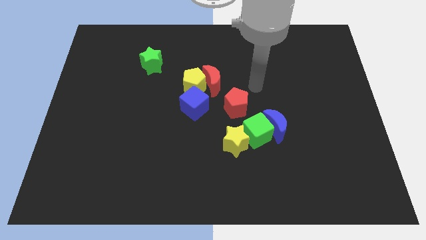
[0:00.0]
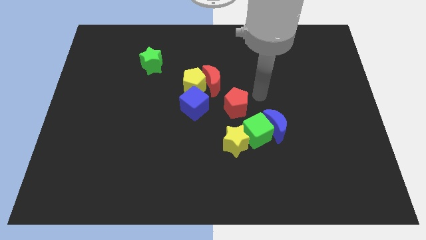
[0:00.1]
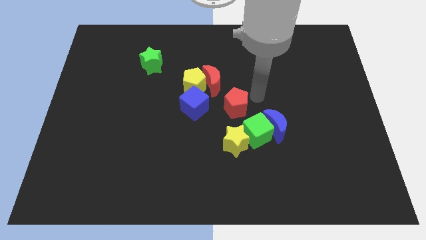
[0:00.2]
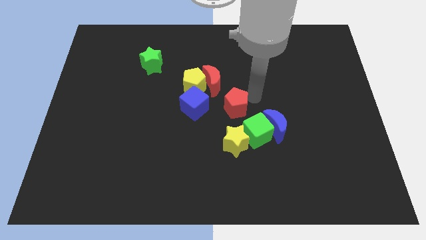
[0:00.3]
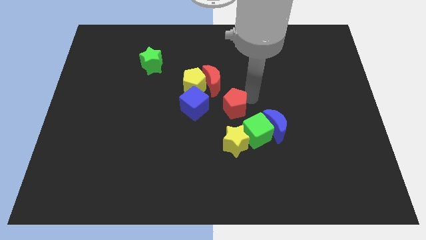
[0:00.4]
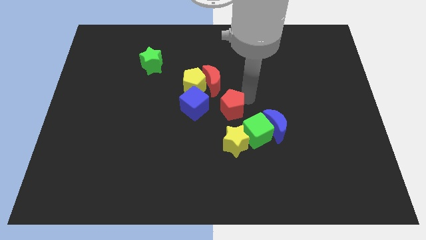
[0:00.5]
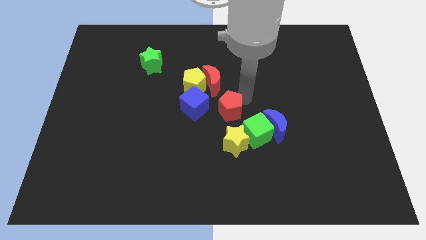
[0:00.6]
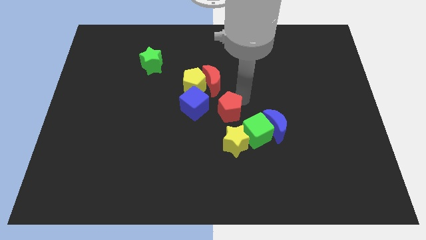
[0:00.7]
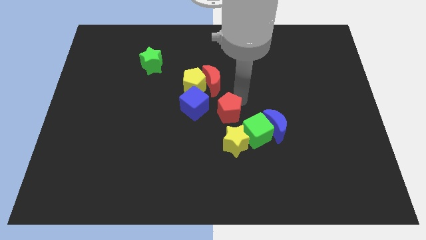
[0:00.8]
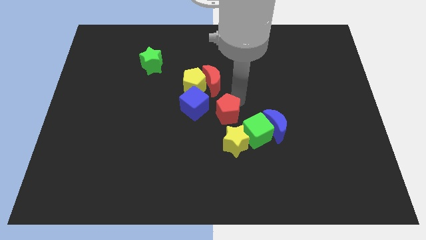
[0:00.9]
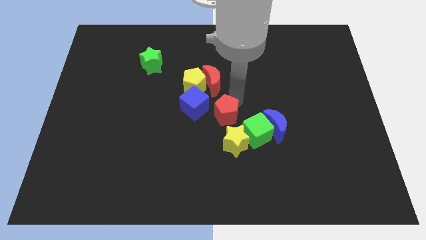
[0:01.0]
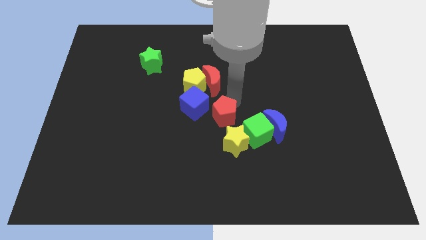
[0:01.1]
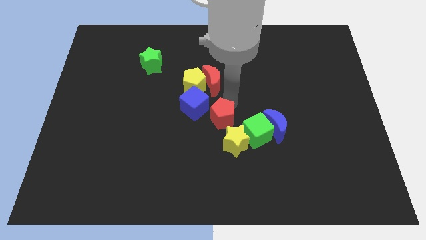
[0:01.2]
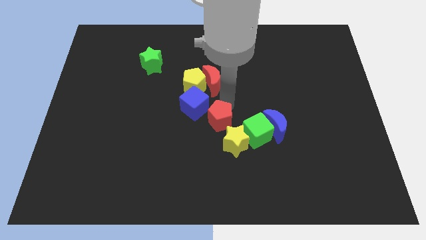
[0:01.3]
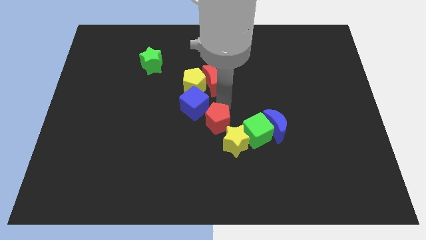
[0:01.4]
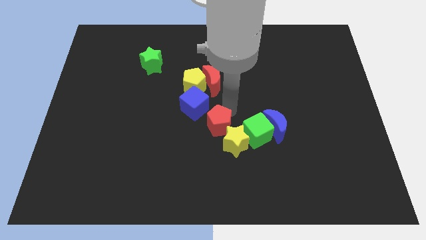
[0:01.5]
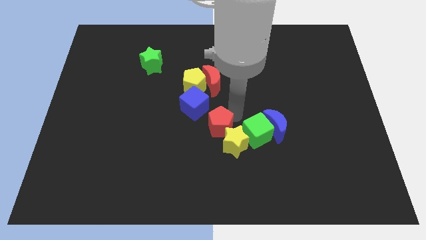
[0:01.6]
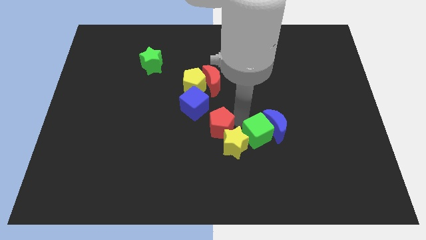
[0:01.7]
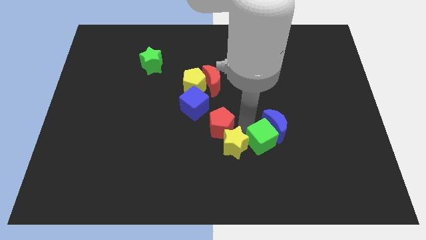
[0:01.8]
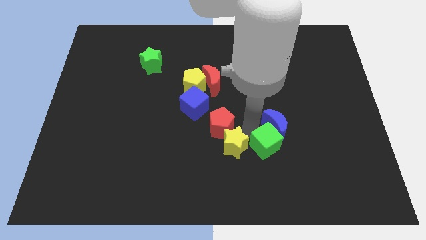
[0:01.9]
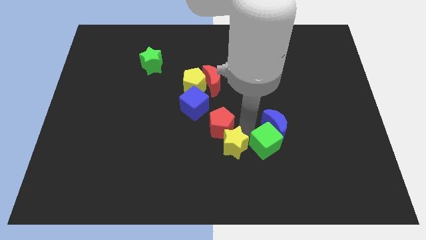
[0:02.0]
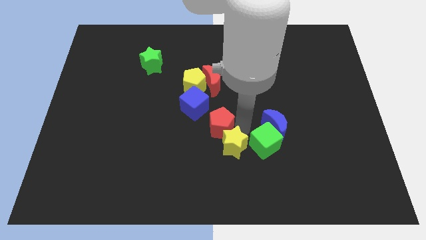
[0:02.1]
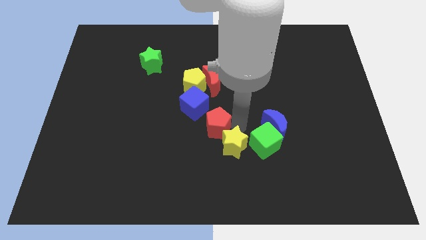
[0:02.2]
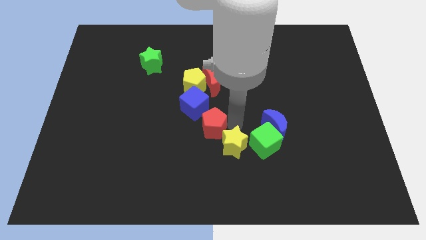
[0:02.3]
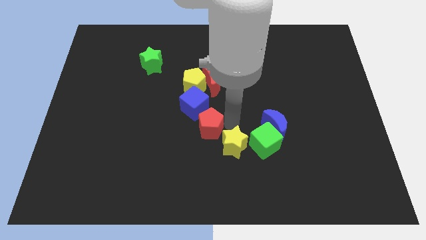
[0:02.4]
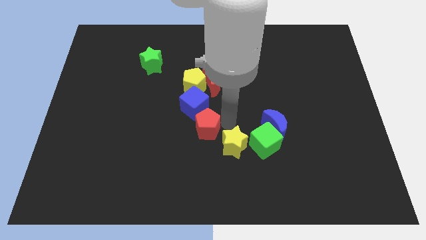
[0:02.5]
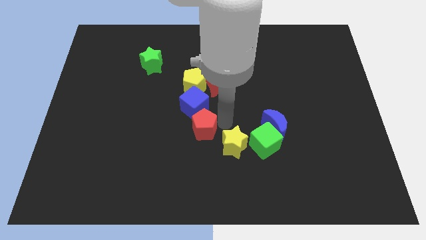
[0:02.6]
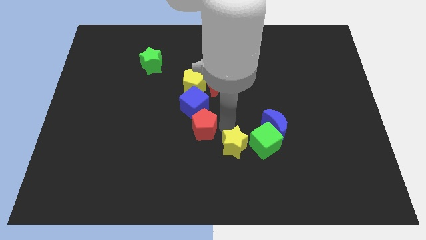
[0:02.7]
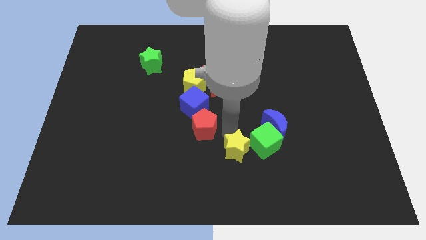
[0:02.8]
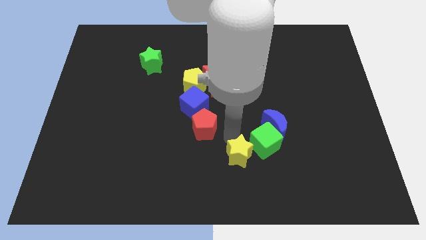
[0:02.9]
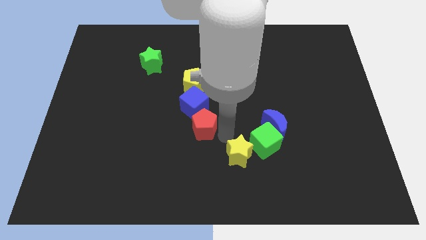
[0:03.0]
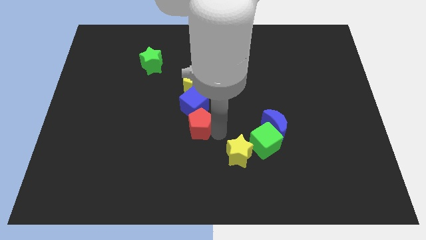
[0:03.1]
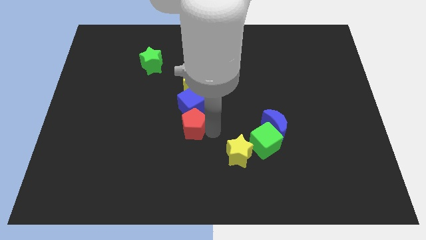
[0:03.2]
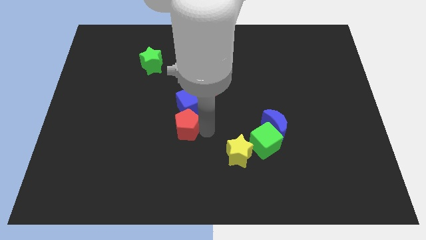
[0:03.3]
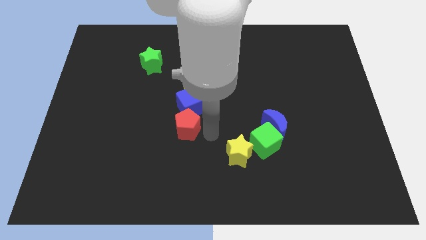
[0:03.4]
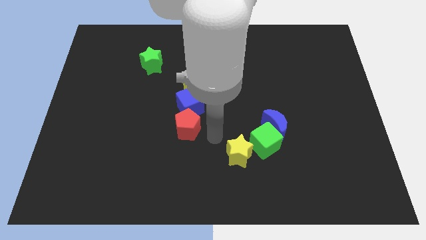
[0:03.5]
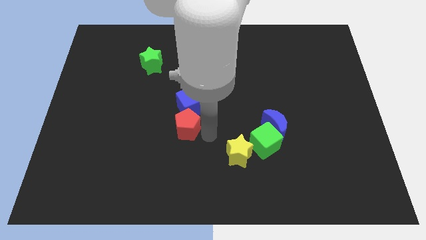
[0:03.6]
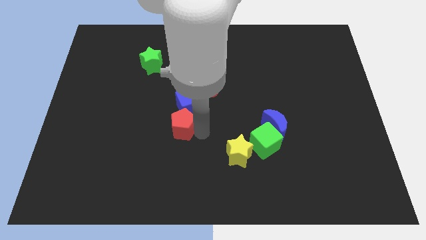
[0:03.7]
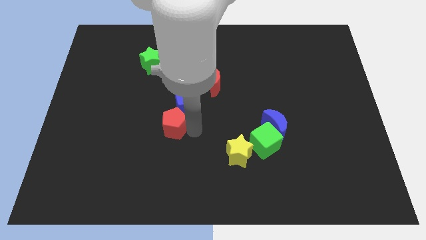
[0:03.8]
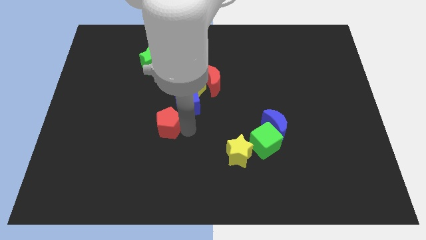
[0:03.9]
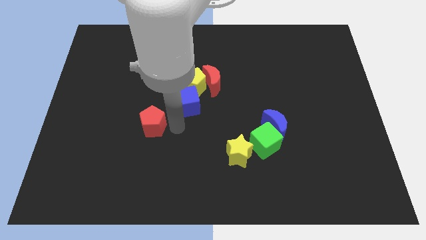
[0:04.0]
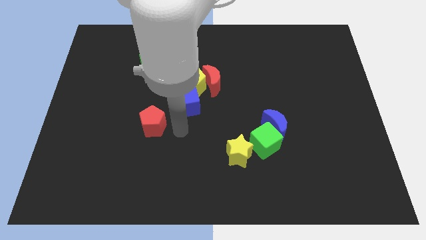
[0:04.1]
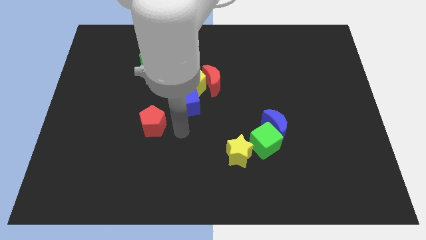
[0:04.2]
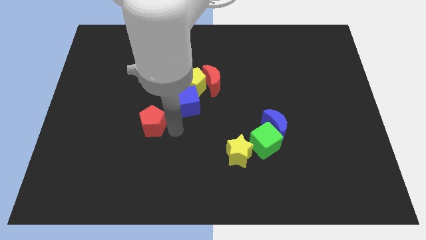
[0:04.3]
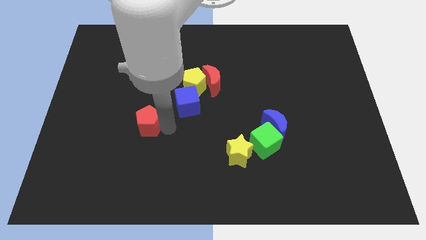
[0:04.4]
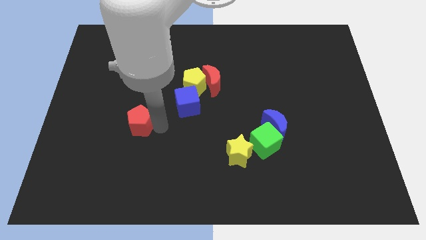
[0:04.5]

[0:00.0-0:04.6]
push the red pentagon to the left

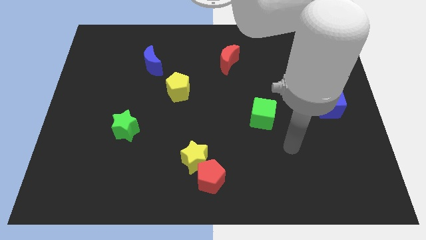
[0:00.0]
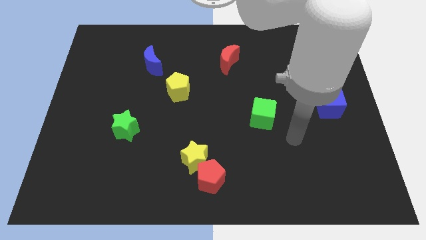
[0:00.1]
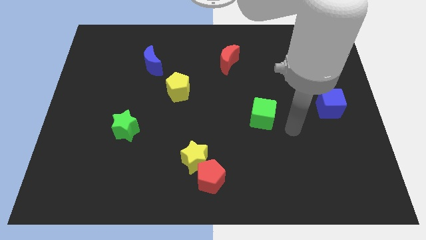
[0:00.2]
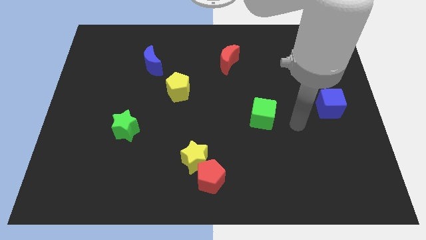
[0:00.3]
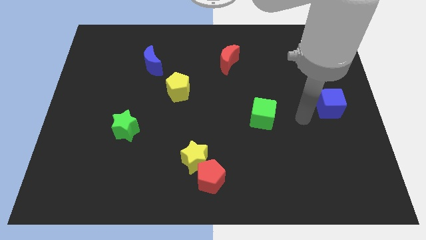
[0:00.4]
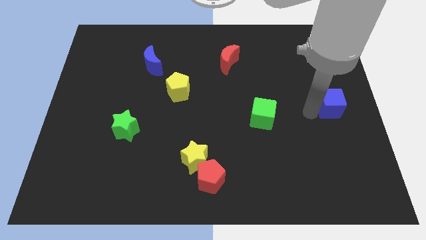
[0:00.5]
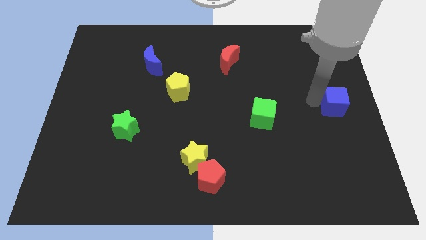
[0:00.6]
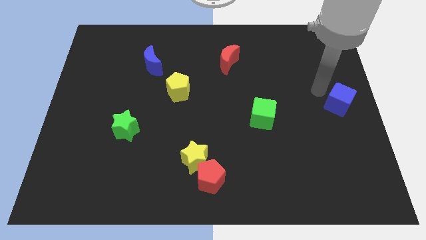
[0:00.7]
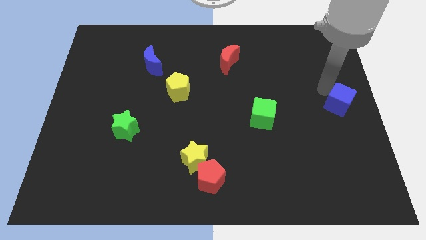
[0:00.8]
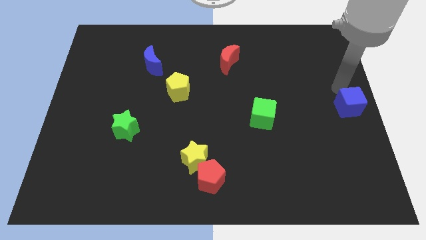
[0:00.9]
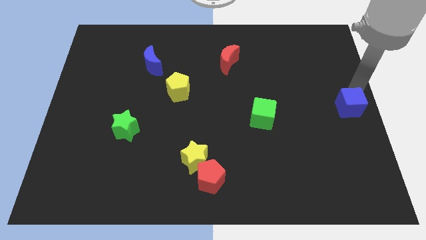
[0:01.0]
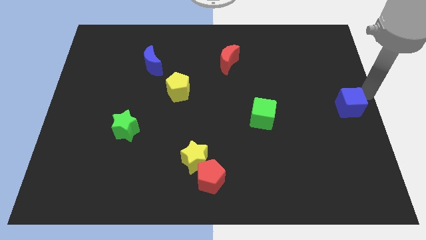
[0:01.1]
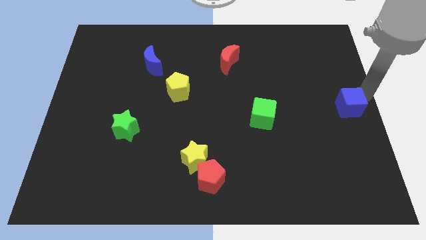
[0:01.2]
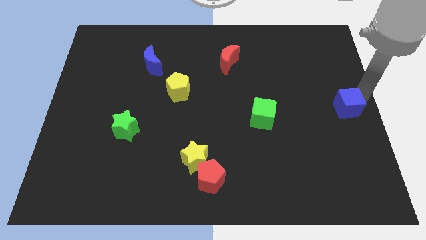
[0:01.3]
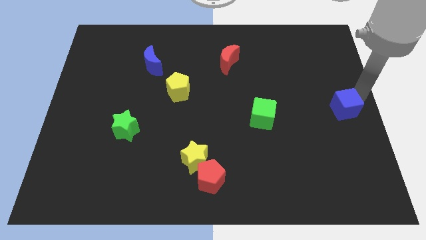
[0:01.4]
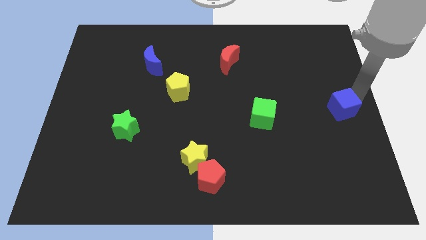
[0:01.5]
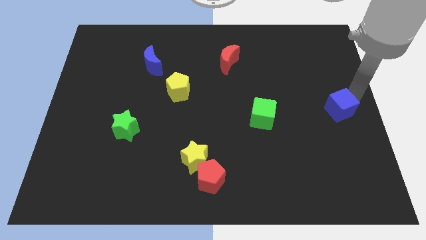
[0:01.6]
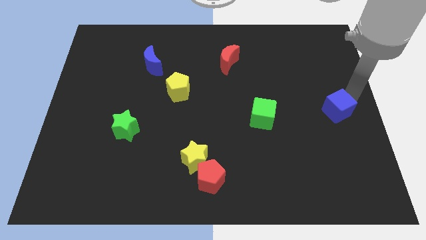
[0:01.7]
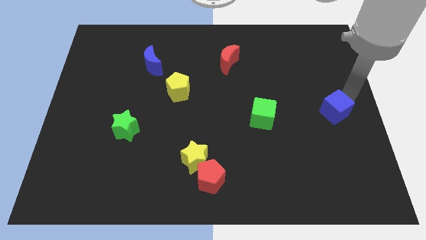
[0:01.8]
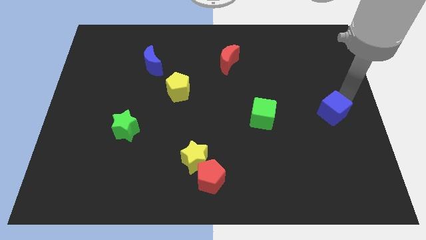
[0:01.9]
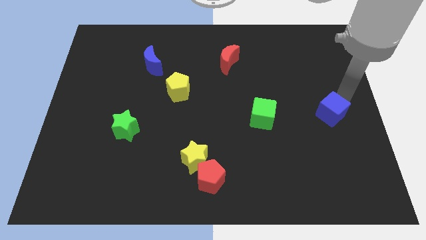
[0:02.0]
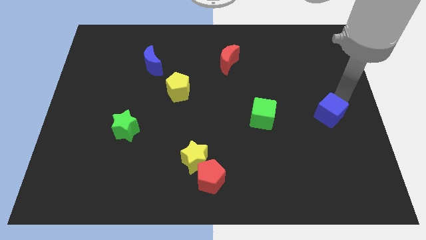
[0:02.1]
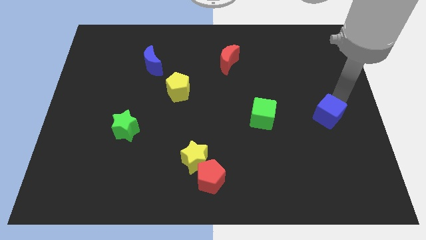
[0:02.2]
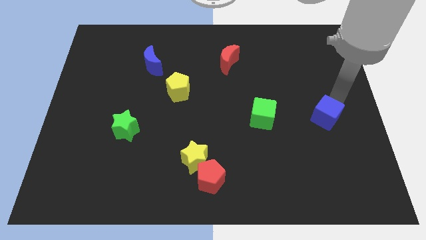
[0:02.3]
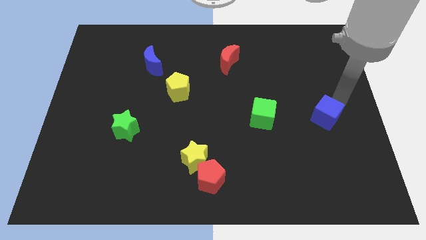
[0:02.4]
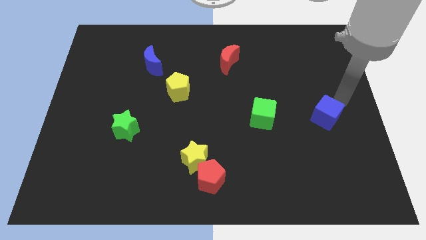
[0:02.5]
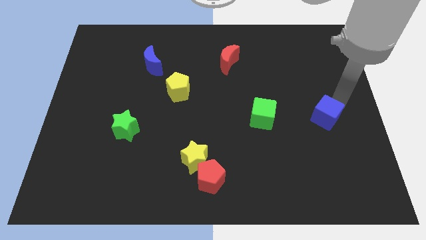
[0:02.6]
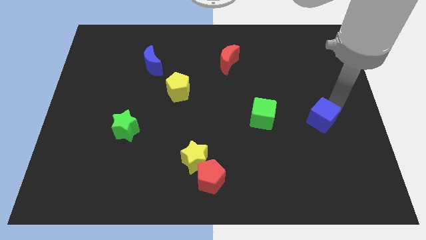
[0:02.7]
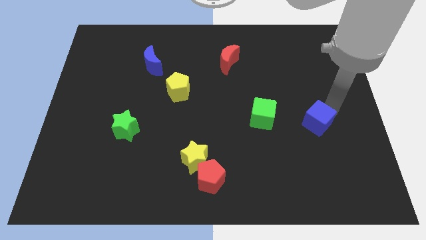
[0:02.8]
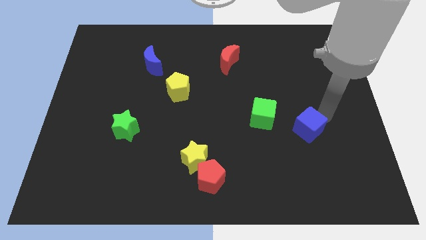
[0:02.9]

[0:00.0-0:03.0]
slide the blue cube a little bit diagonally downwards and left

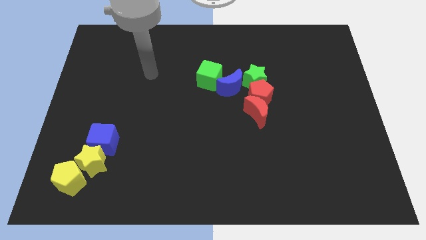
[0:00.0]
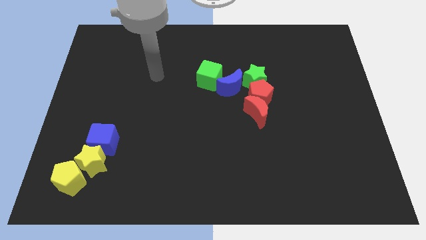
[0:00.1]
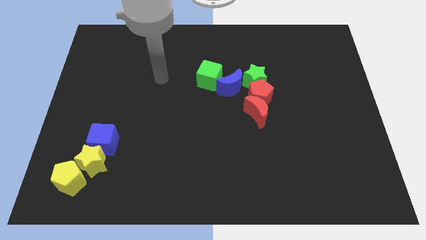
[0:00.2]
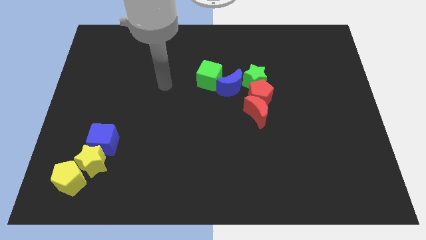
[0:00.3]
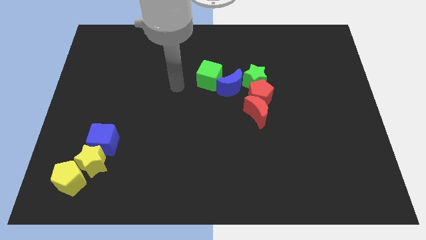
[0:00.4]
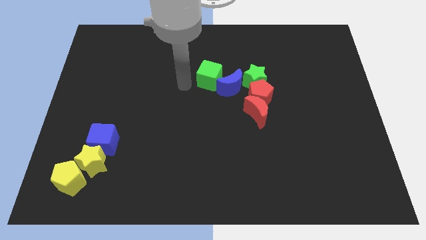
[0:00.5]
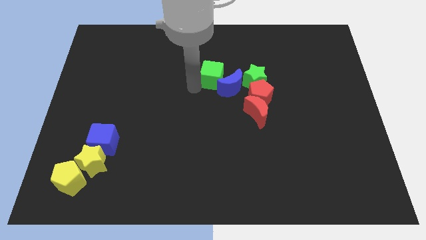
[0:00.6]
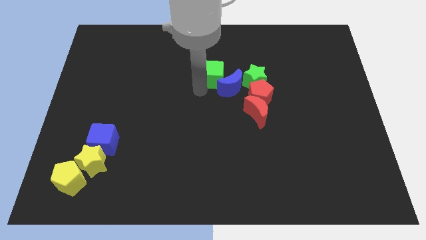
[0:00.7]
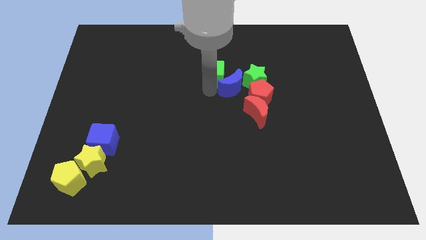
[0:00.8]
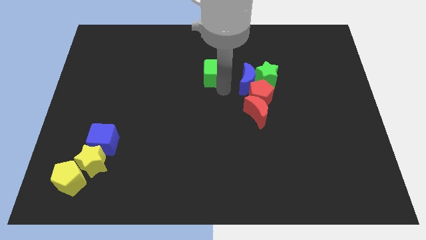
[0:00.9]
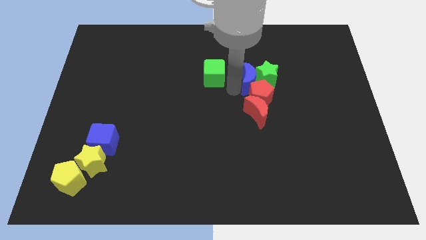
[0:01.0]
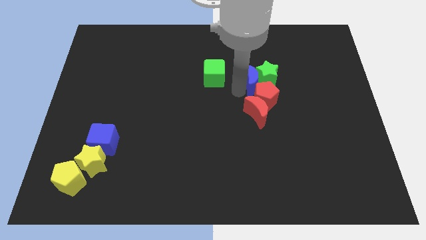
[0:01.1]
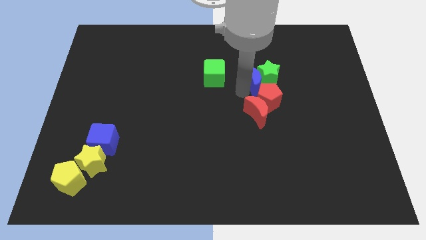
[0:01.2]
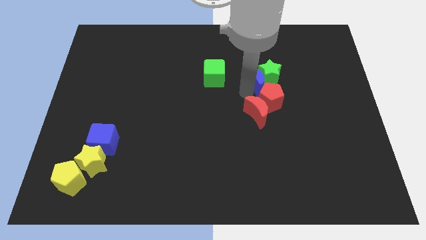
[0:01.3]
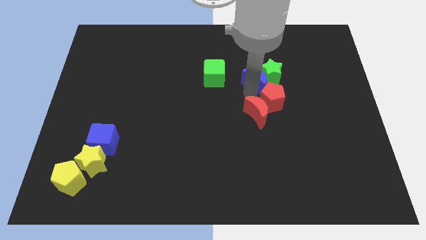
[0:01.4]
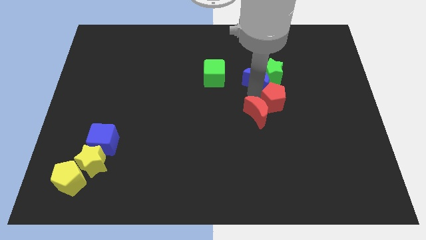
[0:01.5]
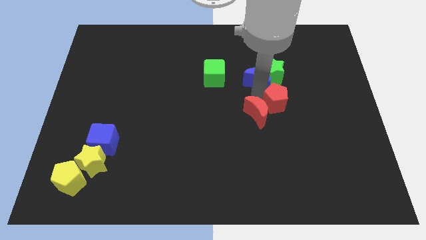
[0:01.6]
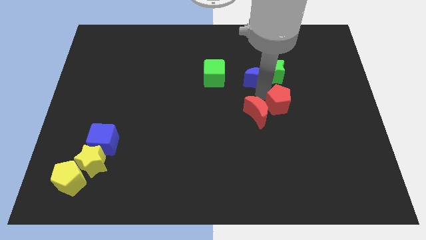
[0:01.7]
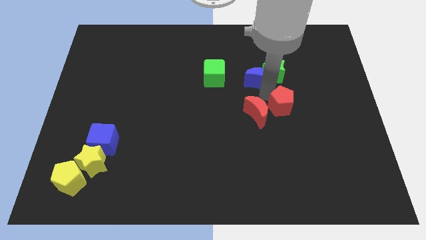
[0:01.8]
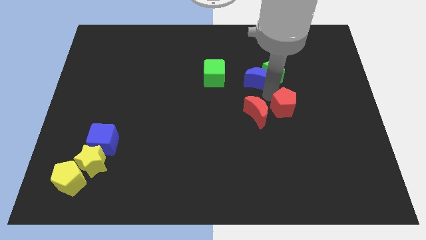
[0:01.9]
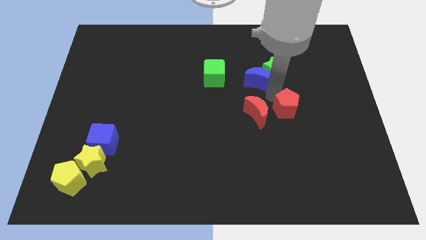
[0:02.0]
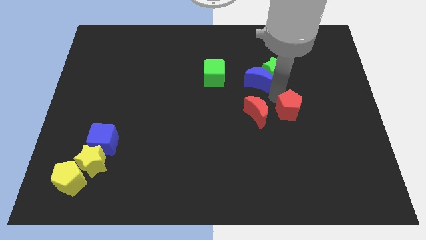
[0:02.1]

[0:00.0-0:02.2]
move the red pentagon down and to the right a little
